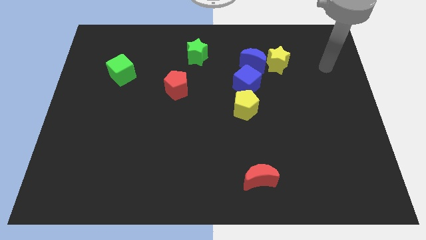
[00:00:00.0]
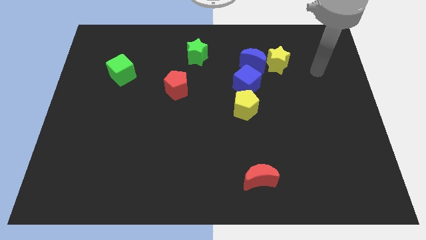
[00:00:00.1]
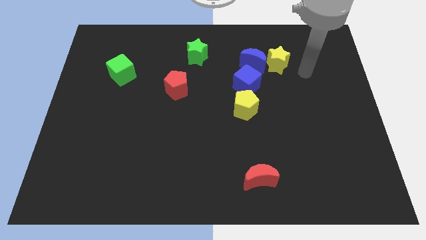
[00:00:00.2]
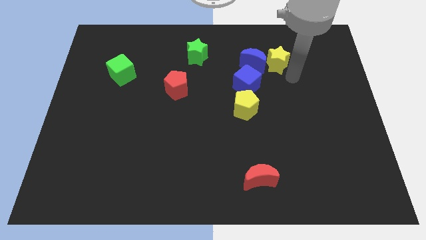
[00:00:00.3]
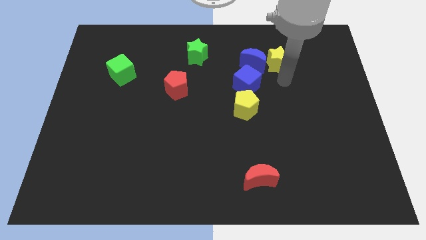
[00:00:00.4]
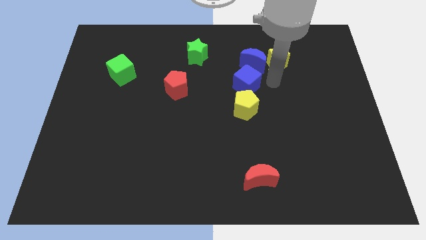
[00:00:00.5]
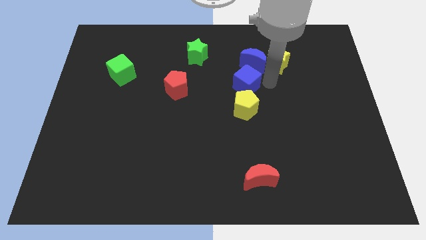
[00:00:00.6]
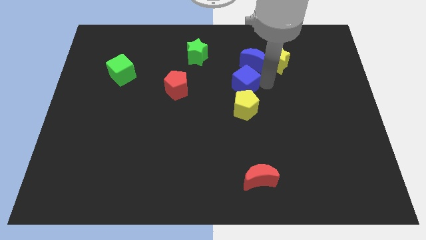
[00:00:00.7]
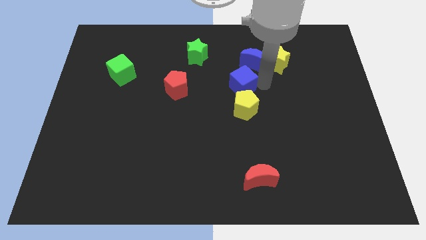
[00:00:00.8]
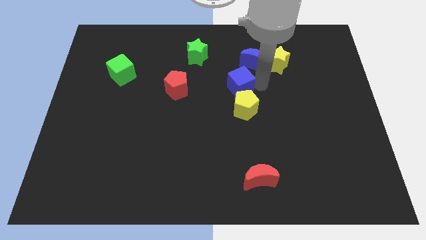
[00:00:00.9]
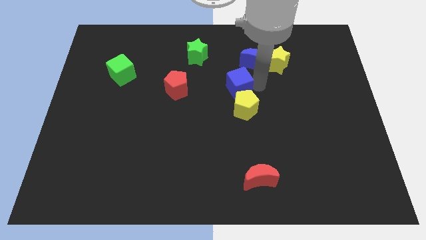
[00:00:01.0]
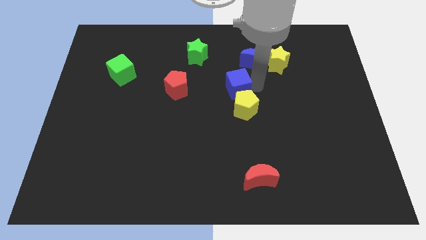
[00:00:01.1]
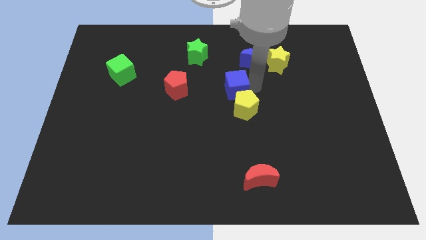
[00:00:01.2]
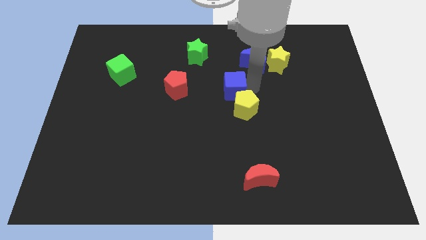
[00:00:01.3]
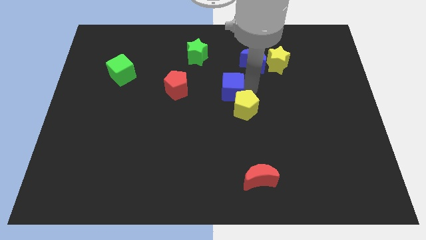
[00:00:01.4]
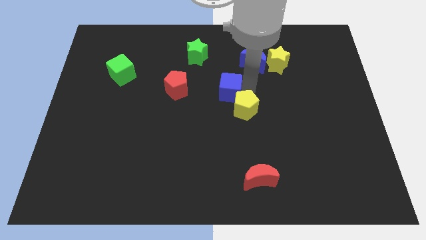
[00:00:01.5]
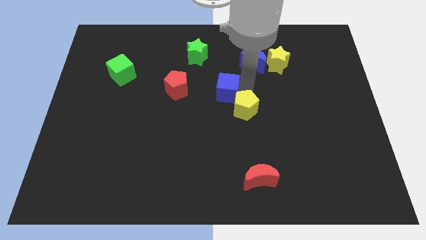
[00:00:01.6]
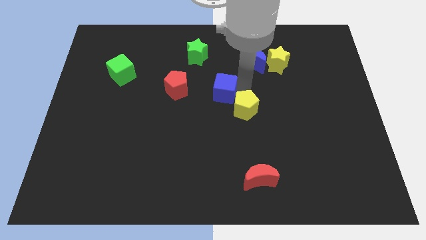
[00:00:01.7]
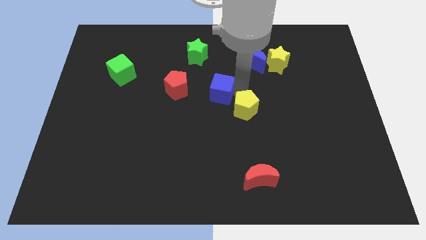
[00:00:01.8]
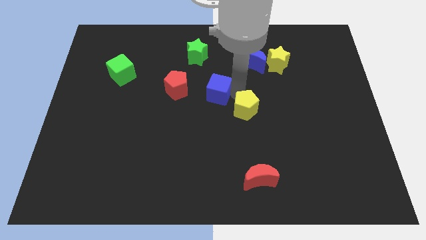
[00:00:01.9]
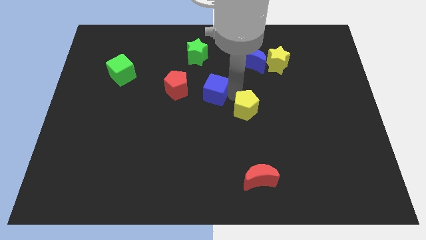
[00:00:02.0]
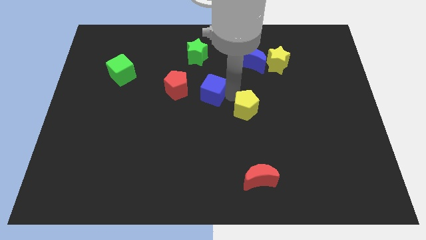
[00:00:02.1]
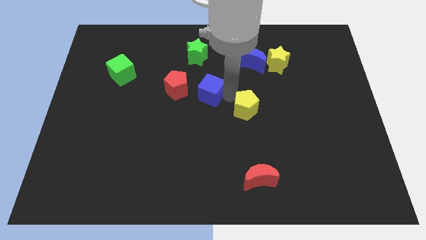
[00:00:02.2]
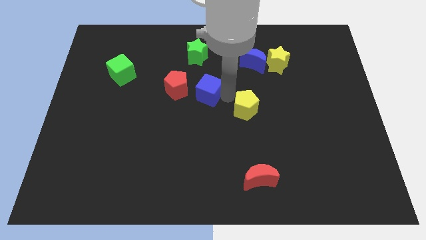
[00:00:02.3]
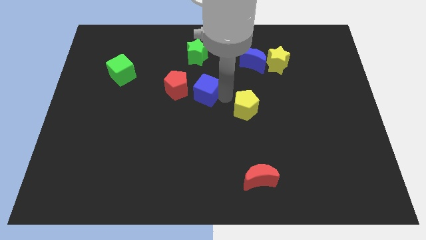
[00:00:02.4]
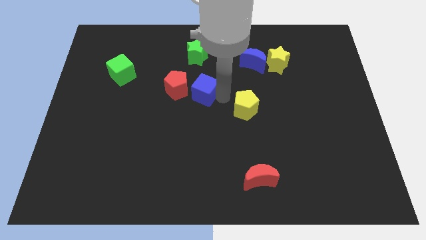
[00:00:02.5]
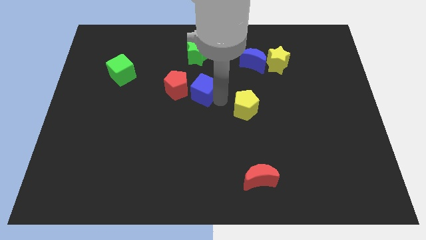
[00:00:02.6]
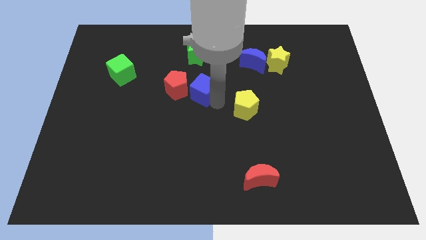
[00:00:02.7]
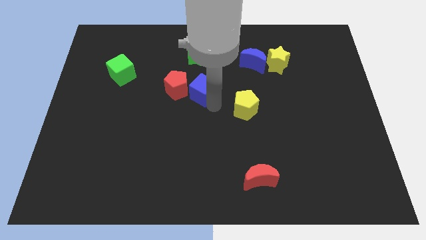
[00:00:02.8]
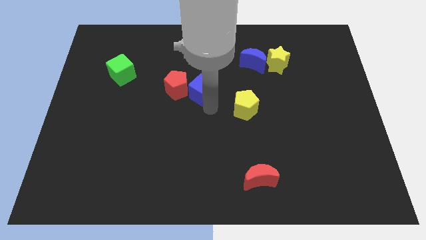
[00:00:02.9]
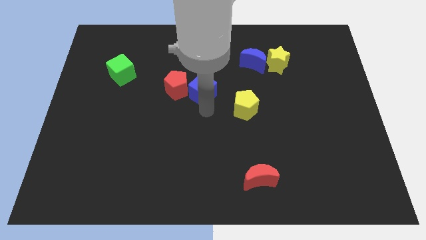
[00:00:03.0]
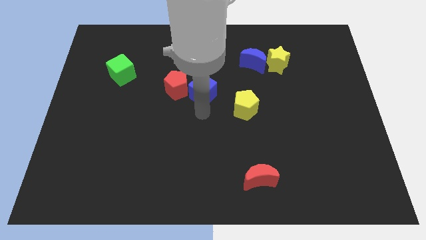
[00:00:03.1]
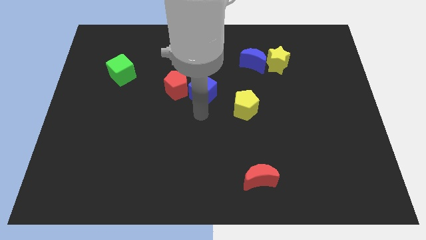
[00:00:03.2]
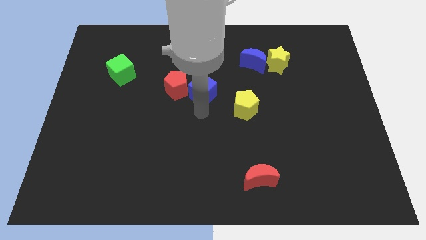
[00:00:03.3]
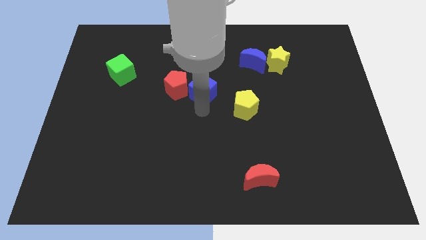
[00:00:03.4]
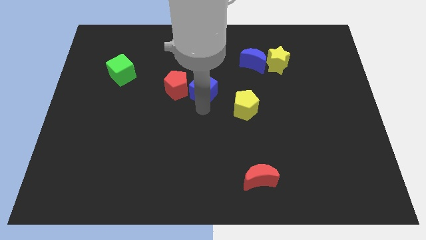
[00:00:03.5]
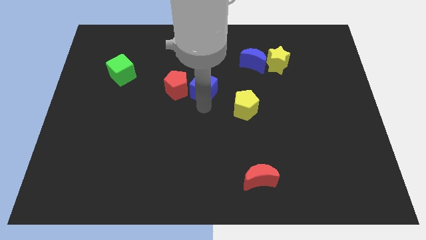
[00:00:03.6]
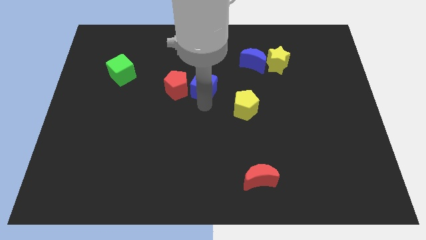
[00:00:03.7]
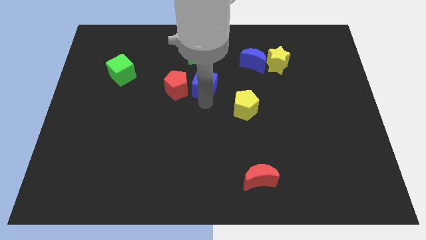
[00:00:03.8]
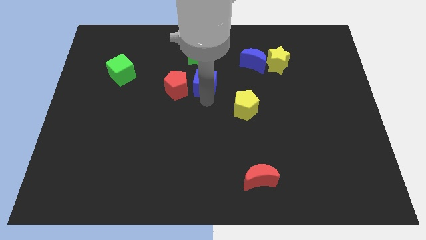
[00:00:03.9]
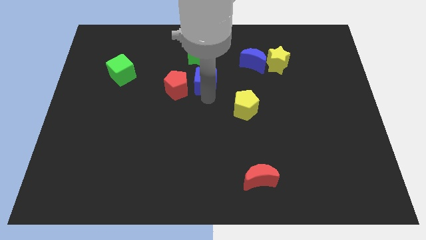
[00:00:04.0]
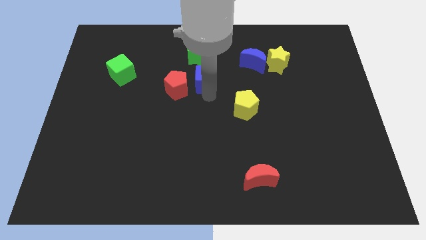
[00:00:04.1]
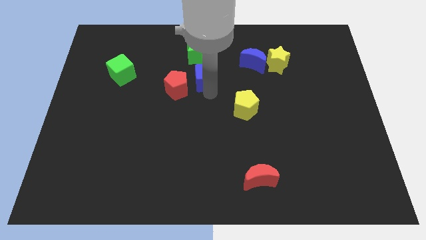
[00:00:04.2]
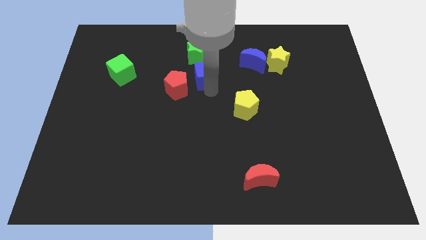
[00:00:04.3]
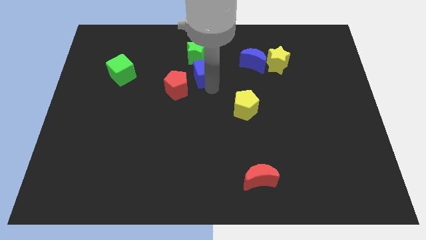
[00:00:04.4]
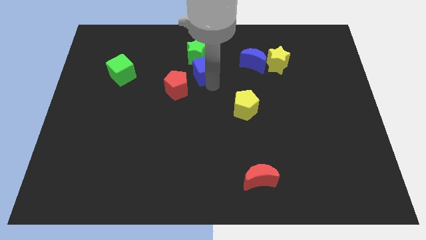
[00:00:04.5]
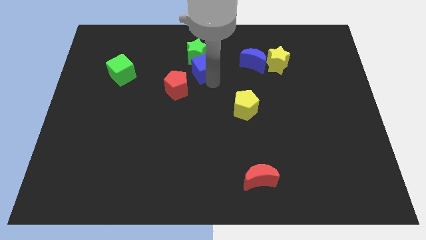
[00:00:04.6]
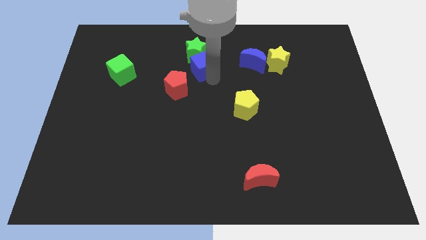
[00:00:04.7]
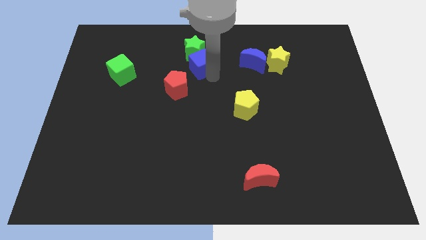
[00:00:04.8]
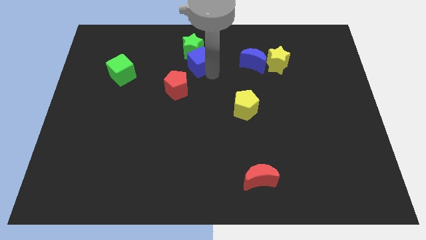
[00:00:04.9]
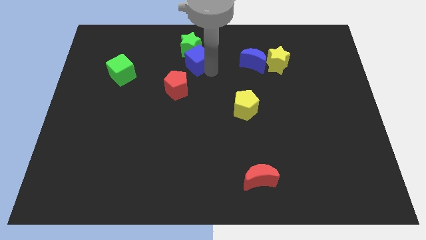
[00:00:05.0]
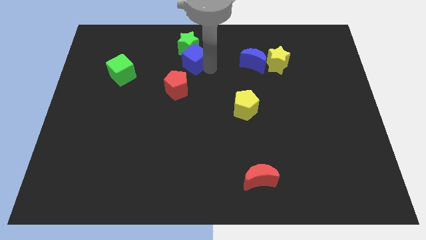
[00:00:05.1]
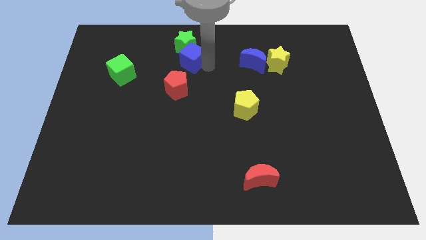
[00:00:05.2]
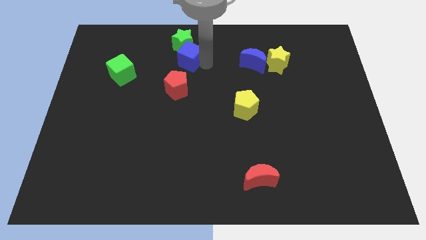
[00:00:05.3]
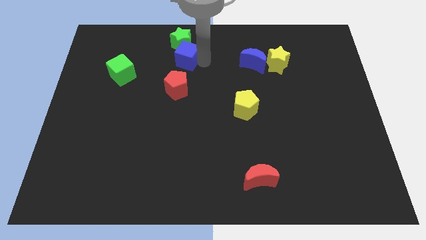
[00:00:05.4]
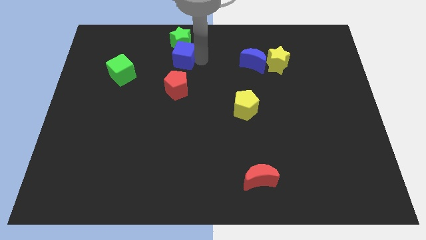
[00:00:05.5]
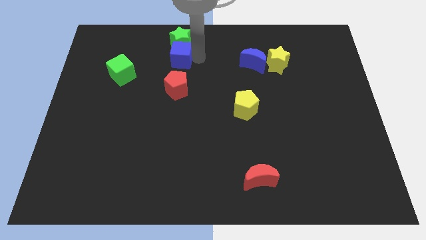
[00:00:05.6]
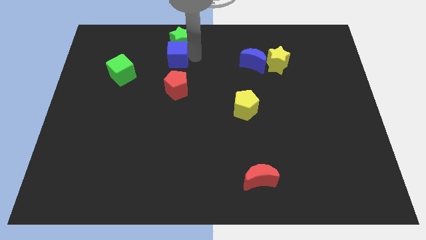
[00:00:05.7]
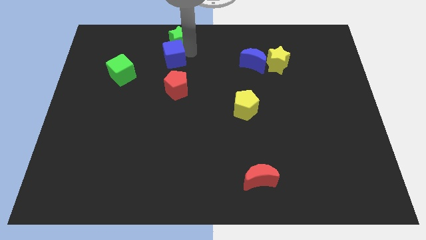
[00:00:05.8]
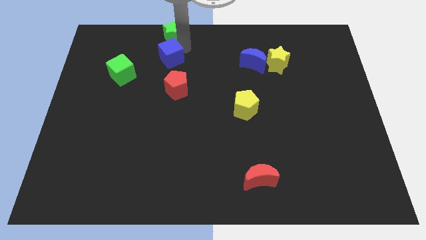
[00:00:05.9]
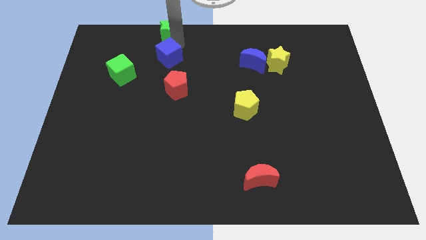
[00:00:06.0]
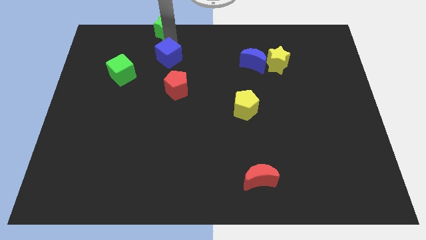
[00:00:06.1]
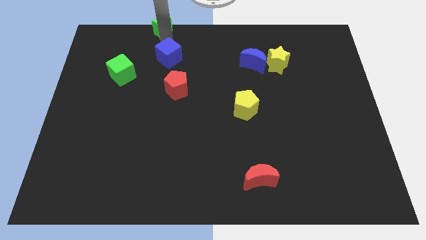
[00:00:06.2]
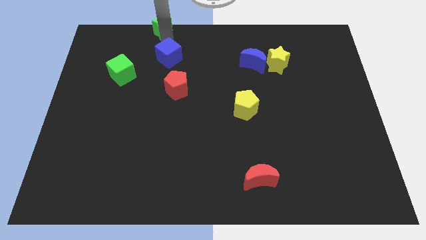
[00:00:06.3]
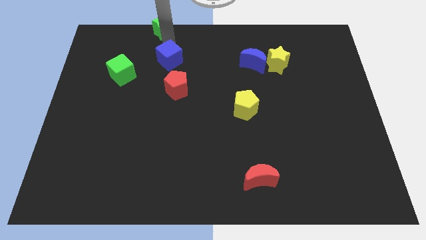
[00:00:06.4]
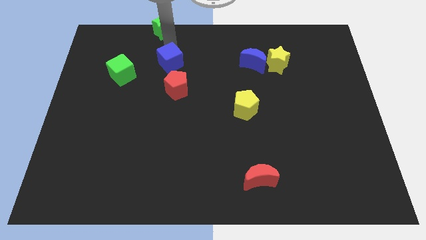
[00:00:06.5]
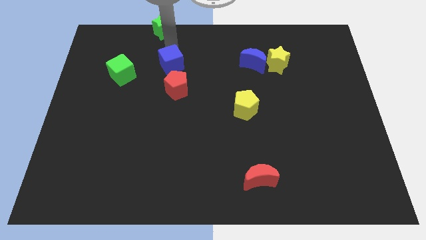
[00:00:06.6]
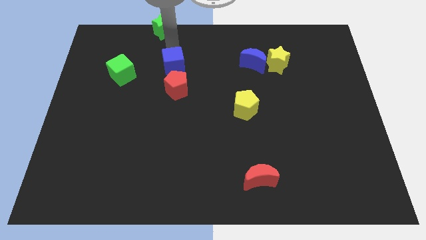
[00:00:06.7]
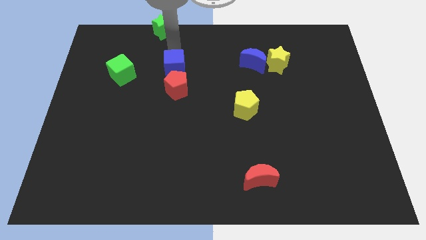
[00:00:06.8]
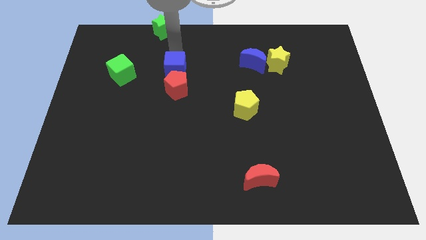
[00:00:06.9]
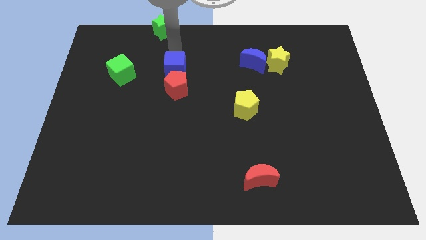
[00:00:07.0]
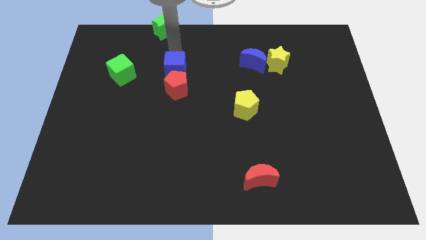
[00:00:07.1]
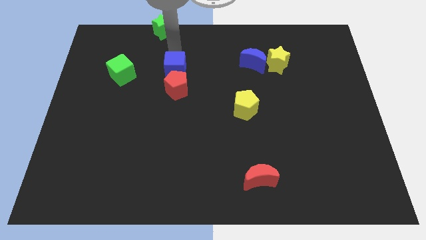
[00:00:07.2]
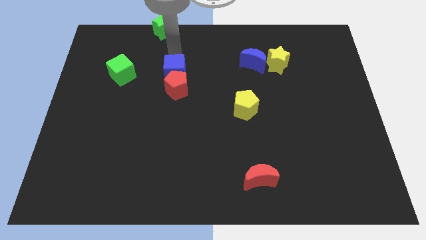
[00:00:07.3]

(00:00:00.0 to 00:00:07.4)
push the blue cube next to the red pentagon
